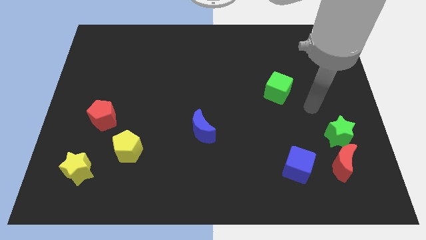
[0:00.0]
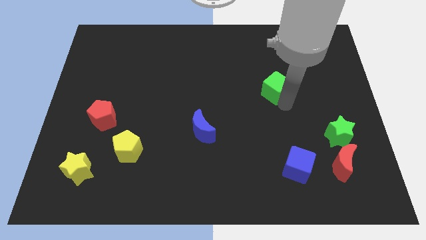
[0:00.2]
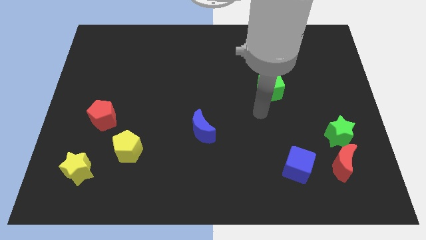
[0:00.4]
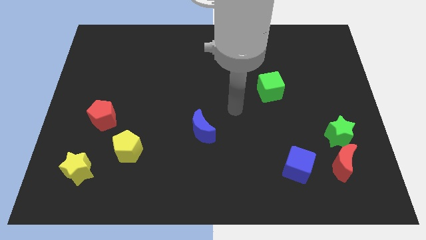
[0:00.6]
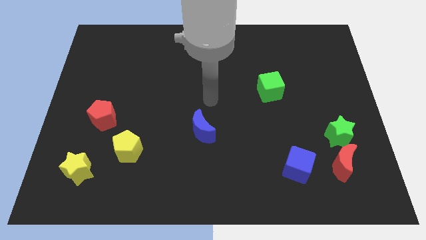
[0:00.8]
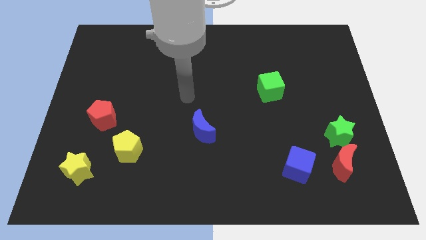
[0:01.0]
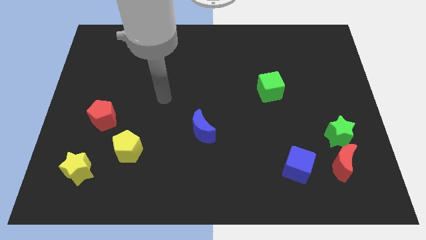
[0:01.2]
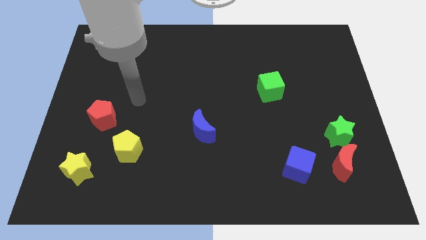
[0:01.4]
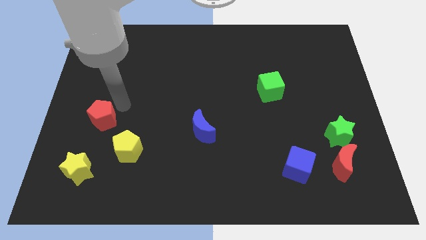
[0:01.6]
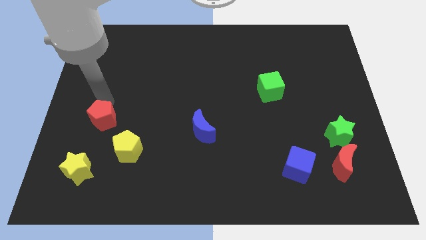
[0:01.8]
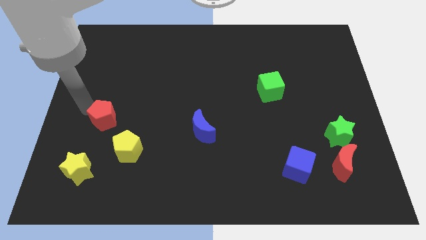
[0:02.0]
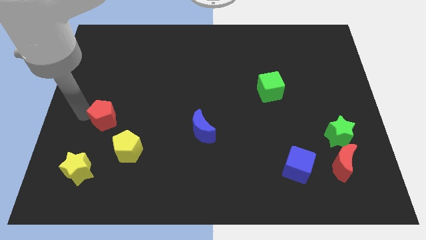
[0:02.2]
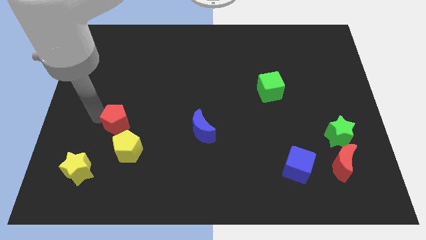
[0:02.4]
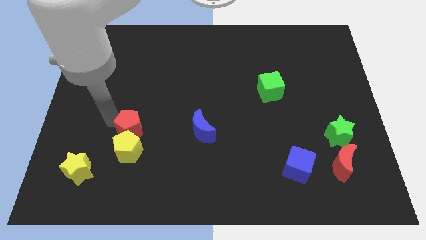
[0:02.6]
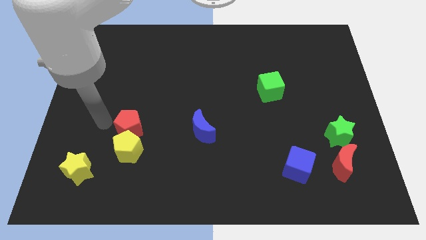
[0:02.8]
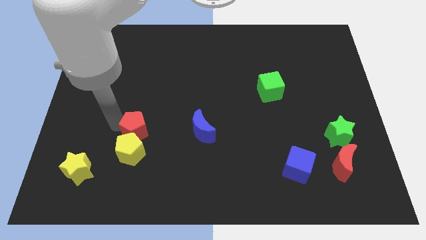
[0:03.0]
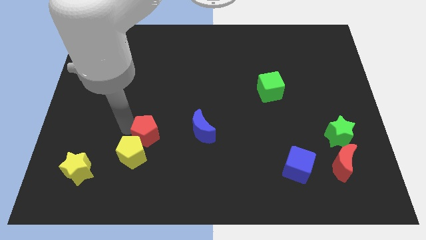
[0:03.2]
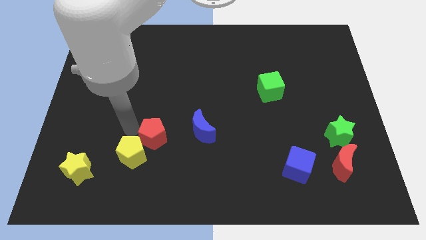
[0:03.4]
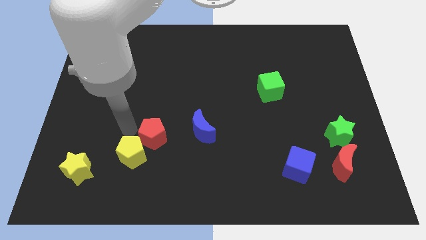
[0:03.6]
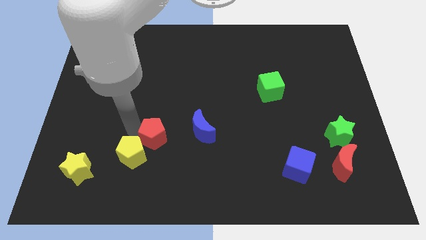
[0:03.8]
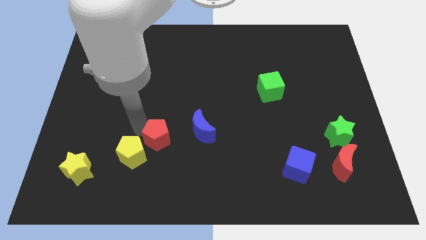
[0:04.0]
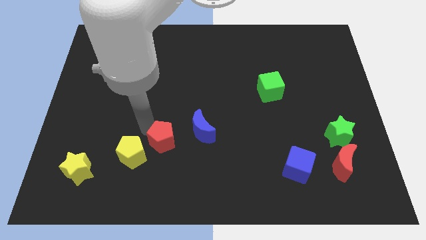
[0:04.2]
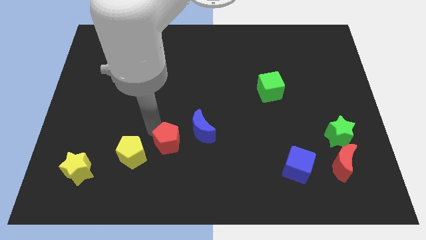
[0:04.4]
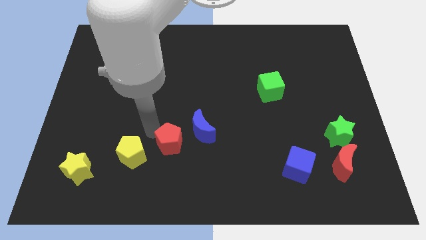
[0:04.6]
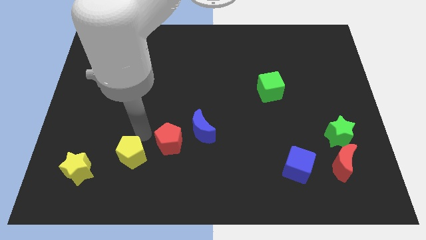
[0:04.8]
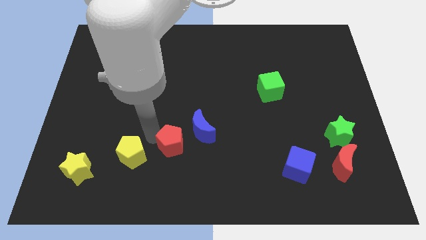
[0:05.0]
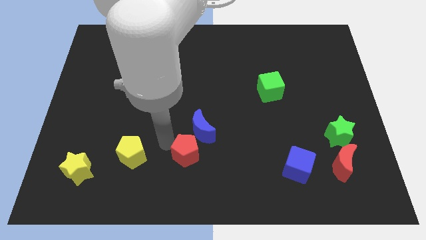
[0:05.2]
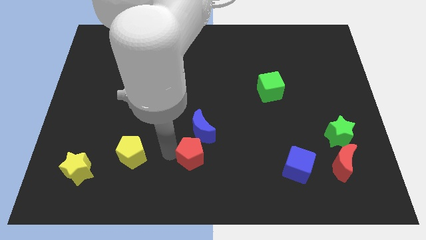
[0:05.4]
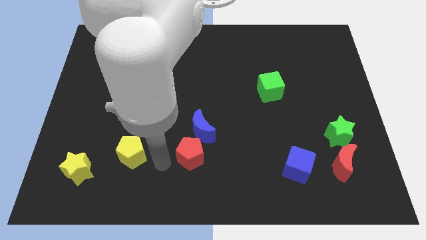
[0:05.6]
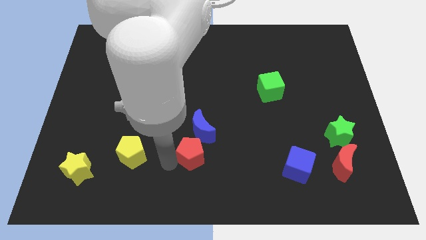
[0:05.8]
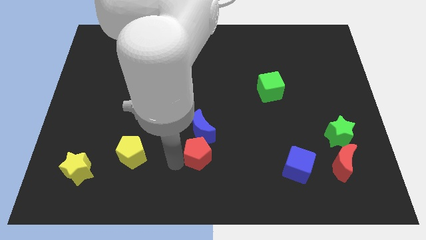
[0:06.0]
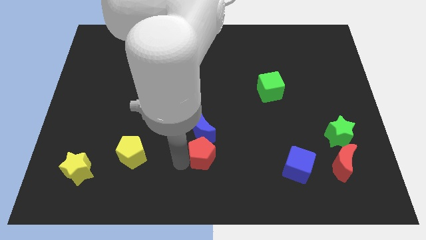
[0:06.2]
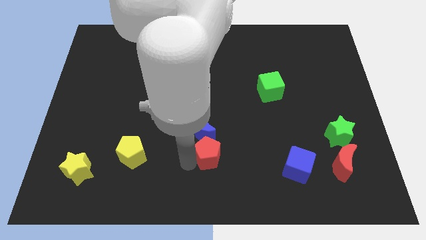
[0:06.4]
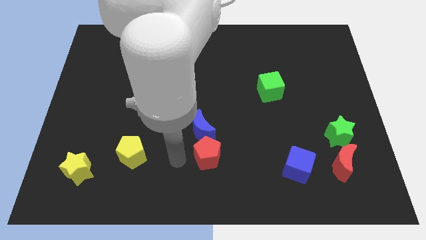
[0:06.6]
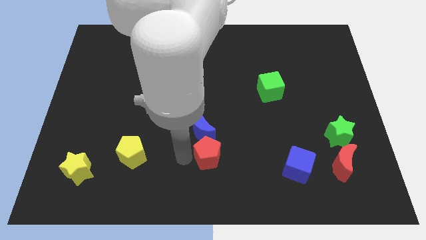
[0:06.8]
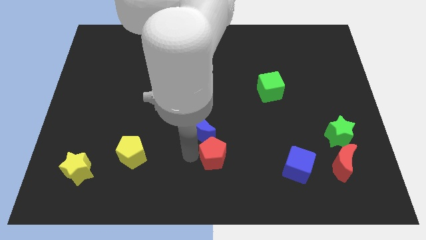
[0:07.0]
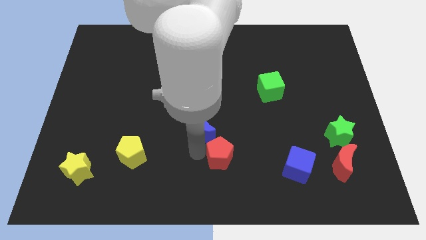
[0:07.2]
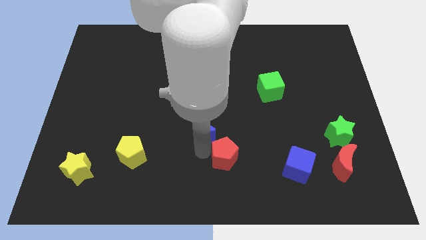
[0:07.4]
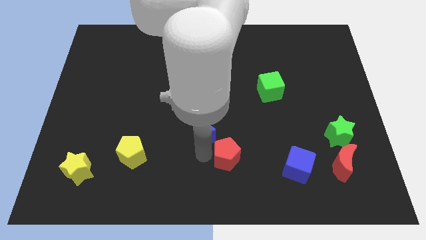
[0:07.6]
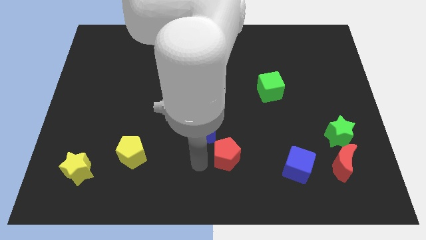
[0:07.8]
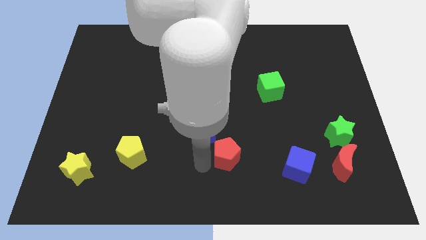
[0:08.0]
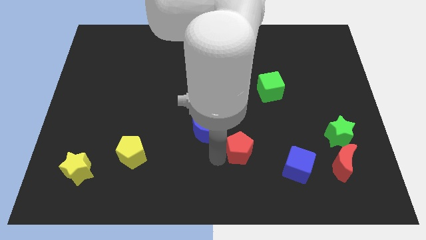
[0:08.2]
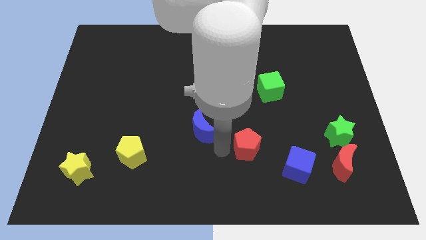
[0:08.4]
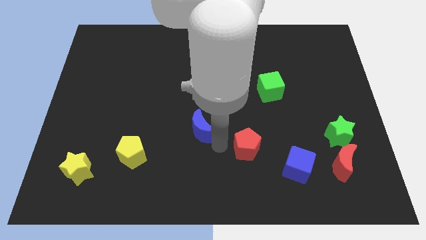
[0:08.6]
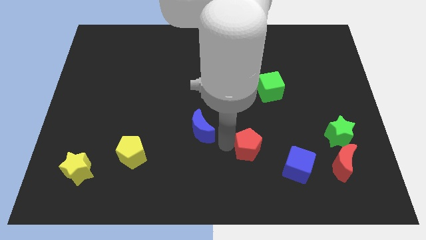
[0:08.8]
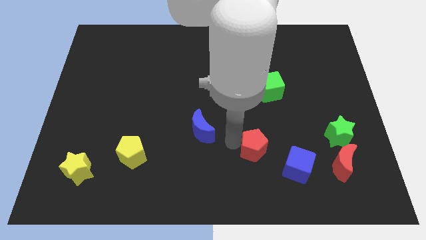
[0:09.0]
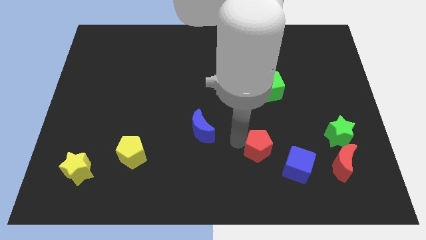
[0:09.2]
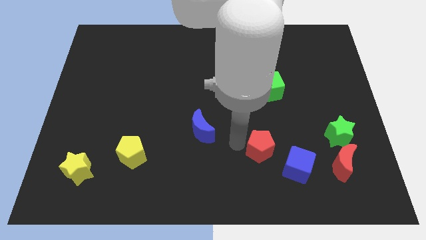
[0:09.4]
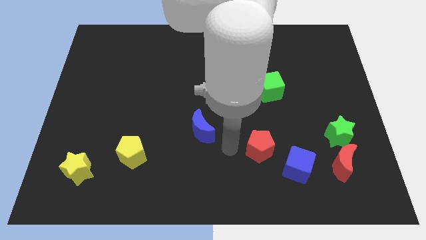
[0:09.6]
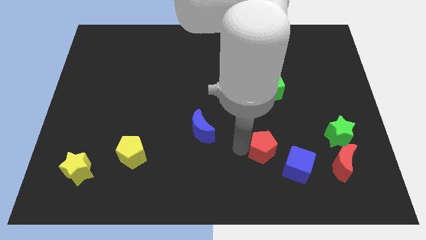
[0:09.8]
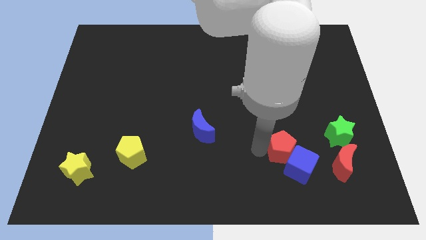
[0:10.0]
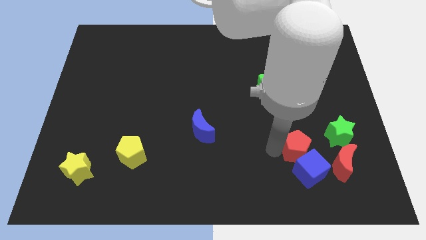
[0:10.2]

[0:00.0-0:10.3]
slide the red pentagon to the top left of the red moon

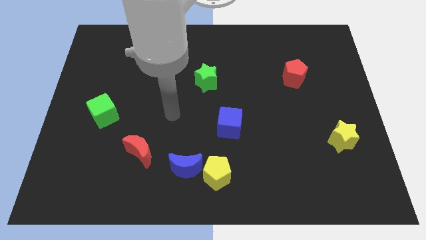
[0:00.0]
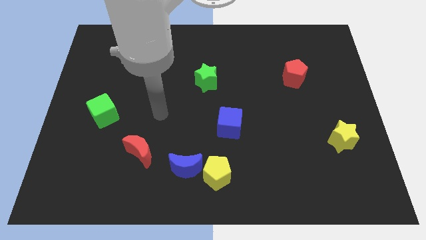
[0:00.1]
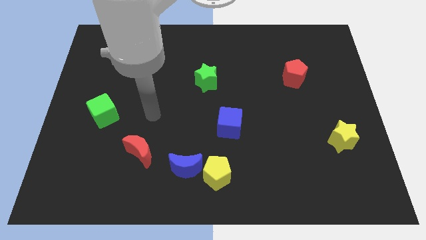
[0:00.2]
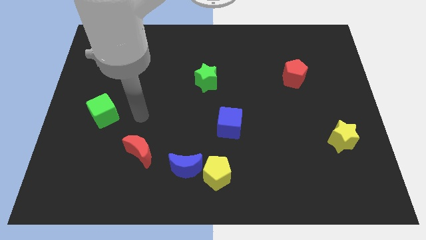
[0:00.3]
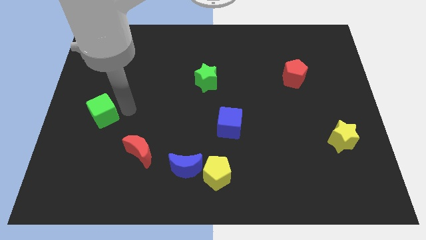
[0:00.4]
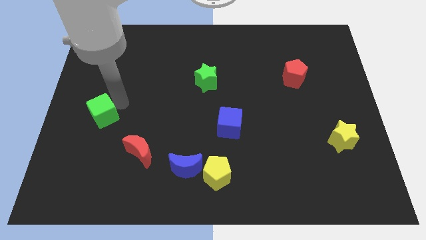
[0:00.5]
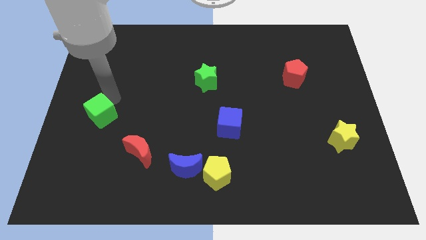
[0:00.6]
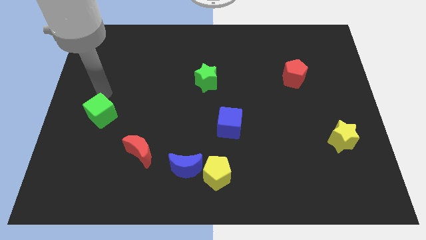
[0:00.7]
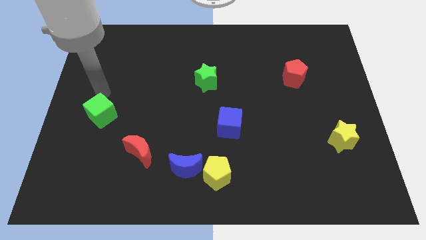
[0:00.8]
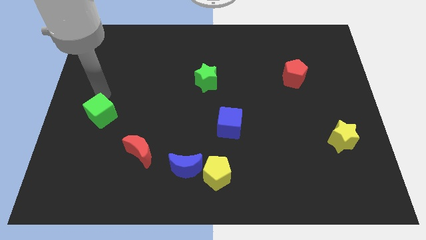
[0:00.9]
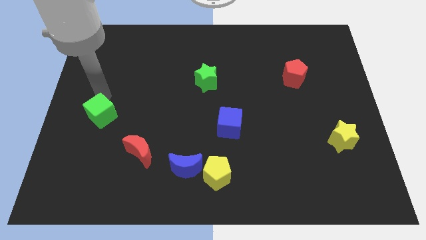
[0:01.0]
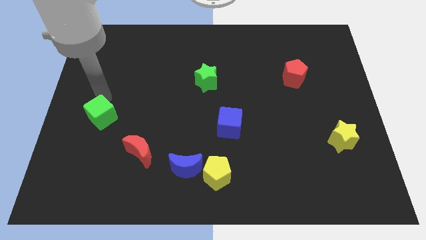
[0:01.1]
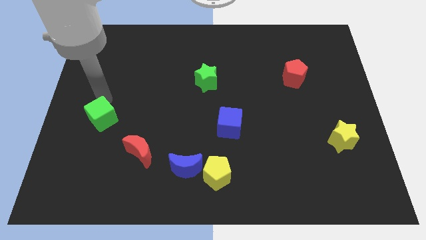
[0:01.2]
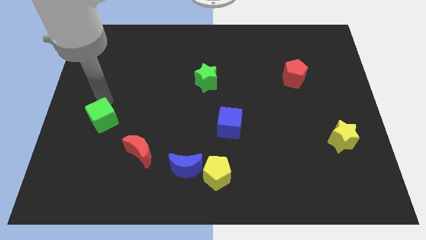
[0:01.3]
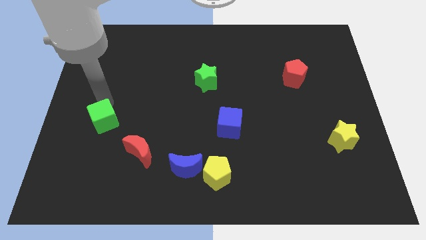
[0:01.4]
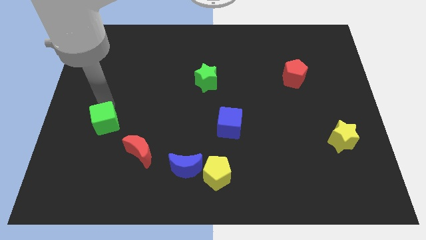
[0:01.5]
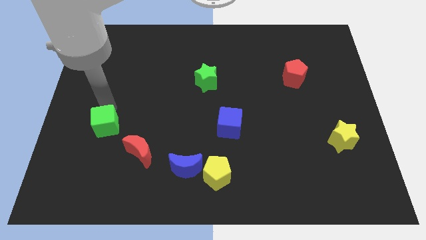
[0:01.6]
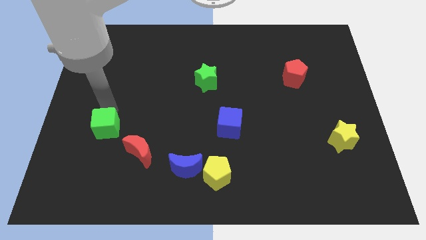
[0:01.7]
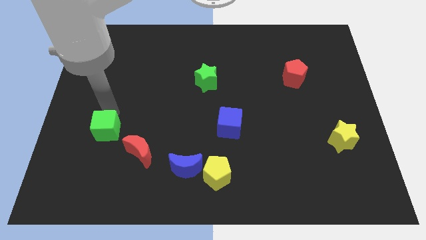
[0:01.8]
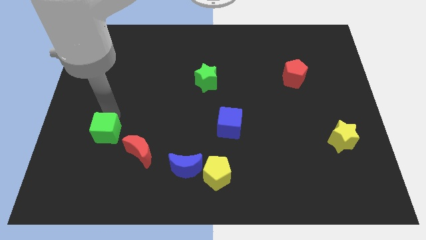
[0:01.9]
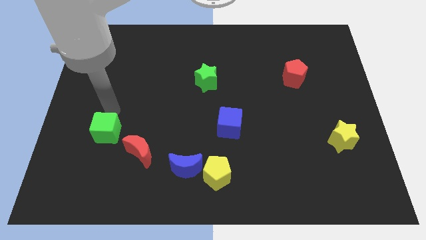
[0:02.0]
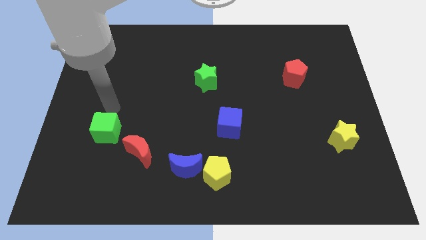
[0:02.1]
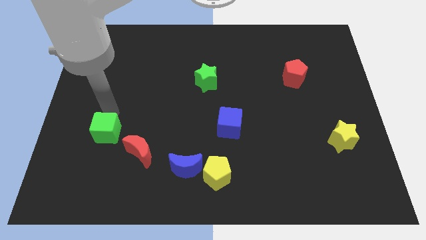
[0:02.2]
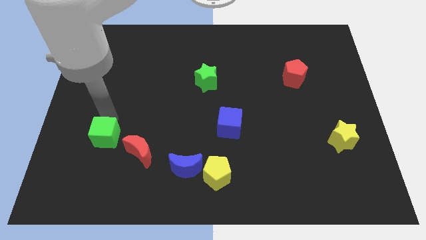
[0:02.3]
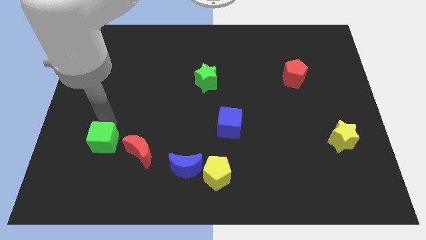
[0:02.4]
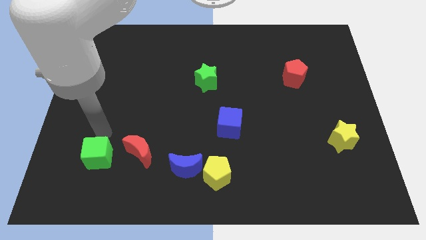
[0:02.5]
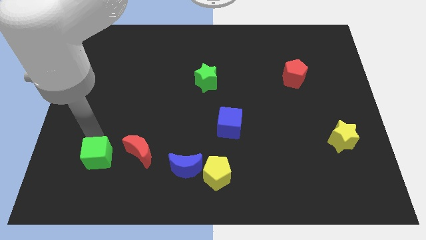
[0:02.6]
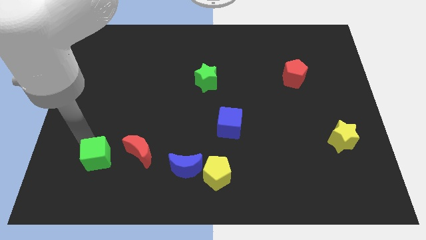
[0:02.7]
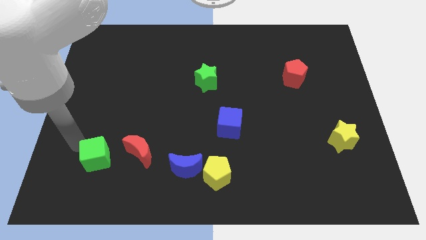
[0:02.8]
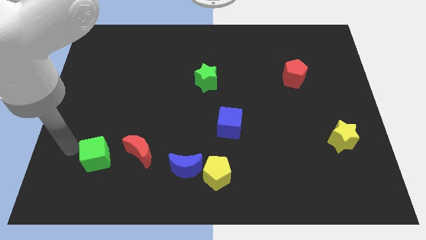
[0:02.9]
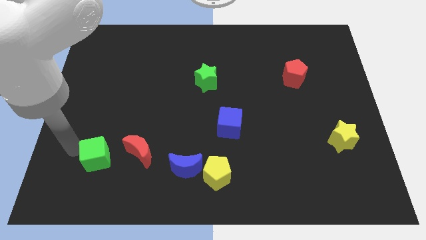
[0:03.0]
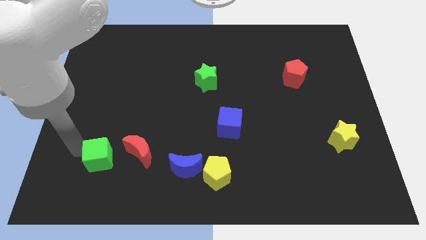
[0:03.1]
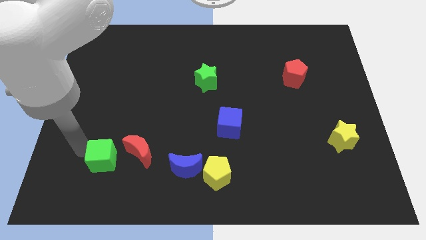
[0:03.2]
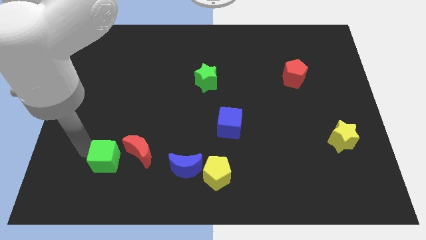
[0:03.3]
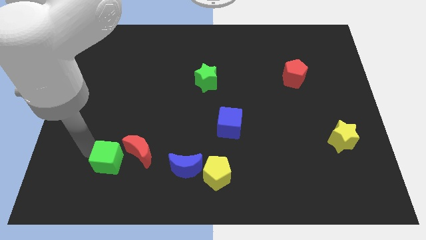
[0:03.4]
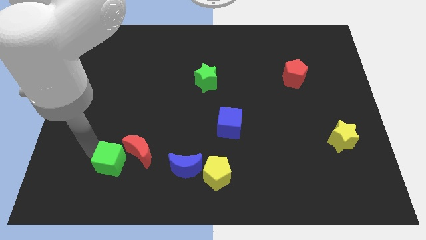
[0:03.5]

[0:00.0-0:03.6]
move the green cube to the left side of the blue moon
